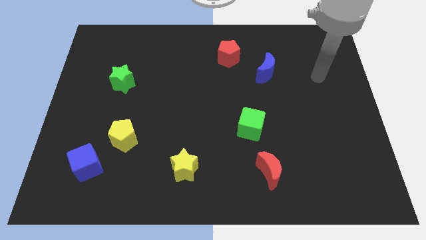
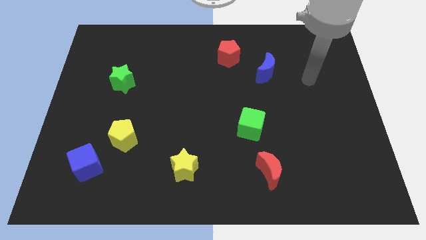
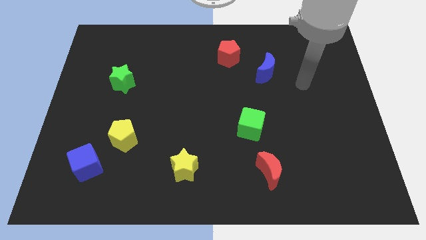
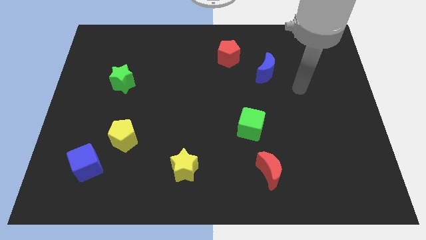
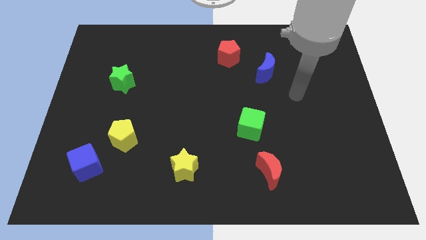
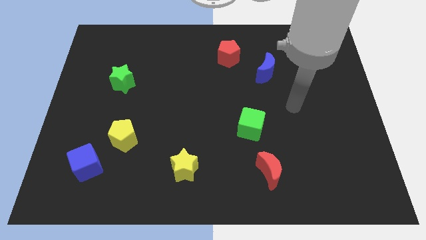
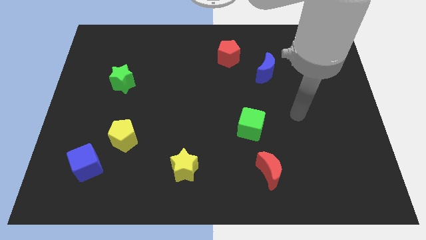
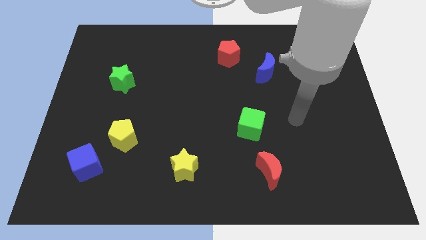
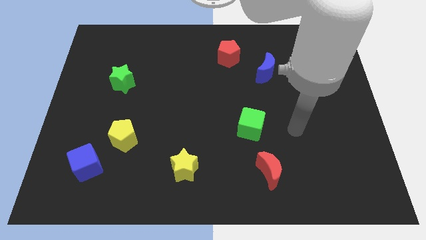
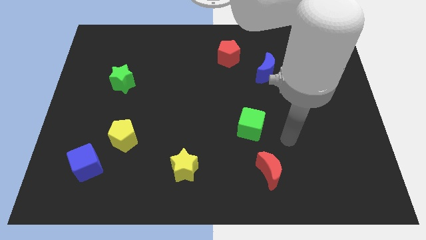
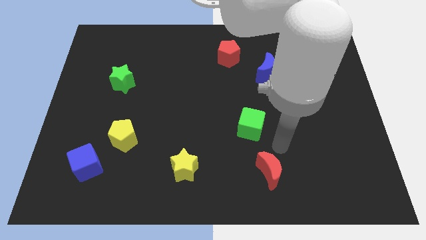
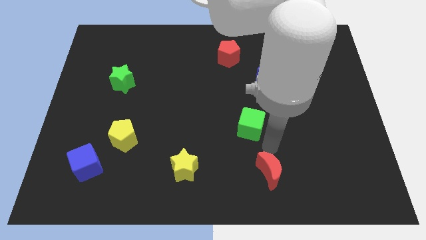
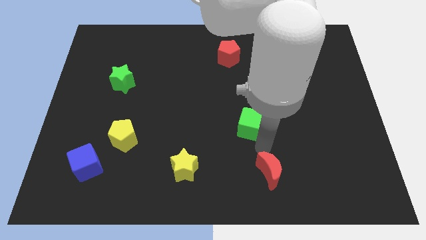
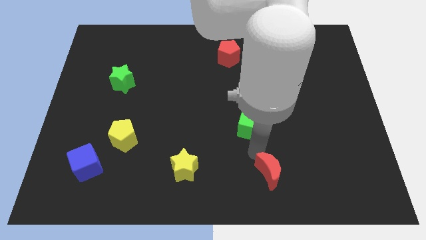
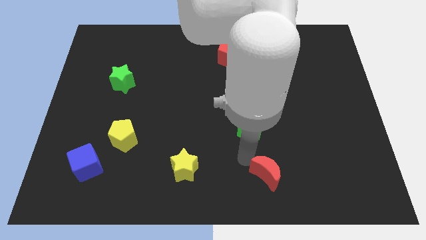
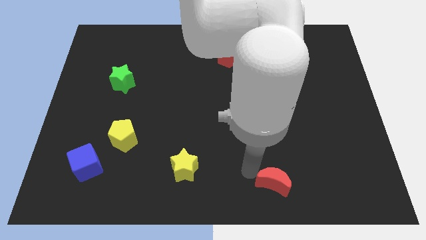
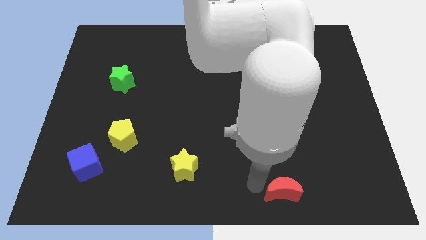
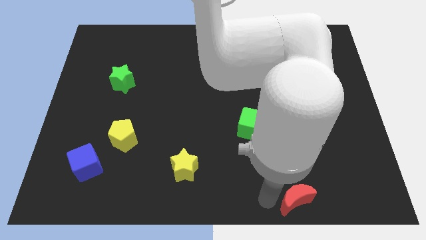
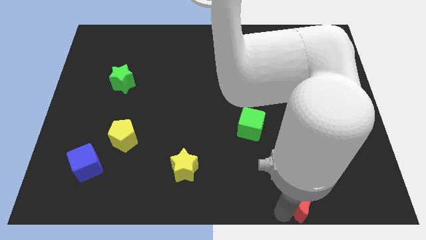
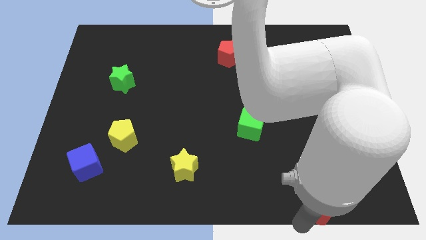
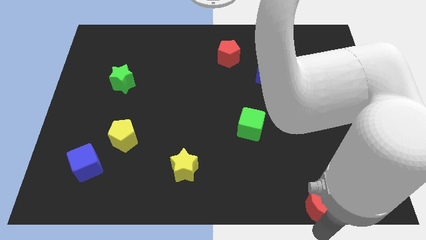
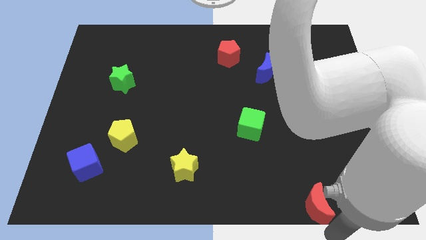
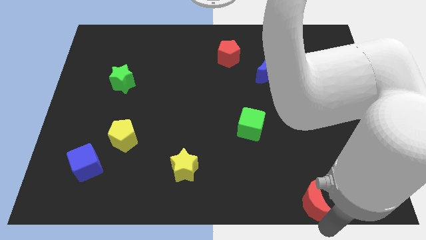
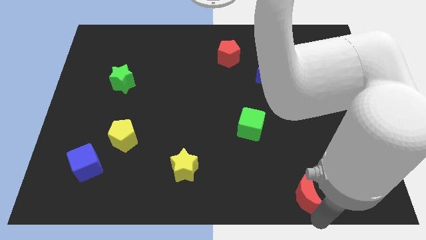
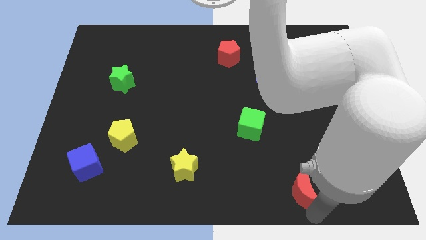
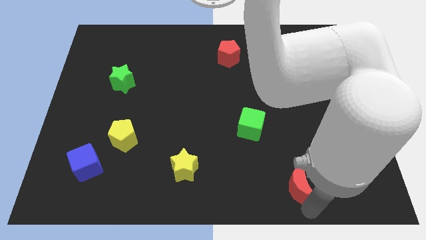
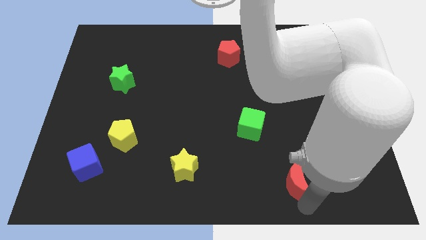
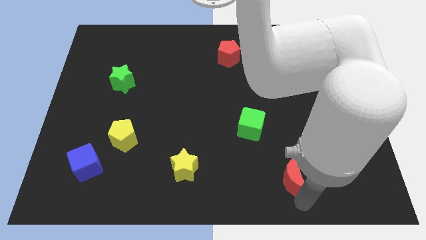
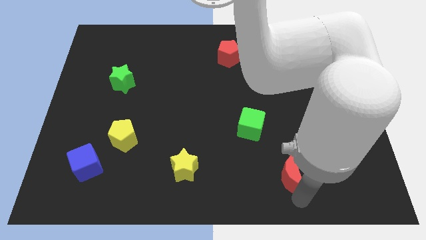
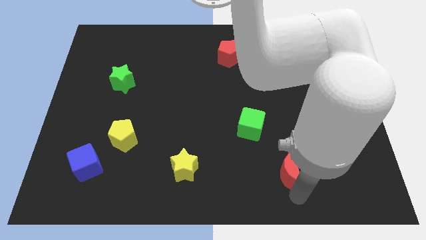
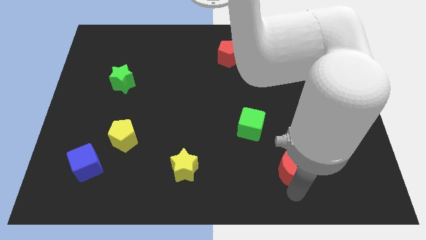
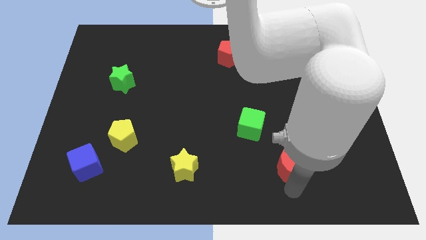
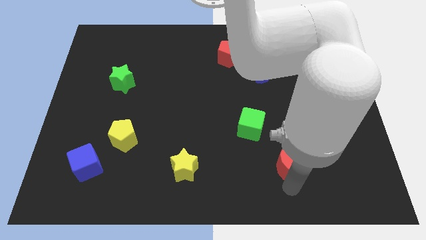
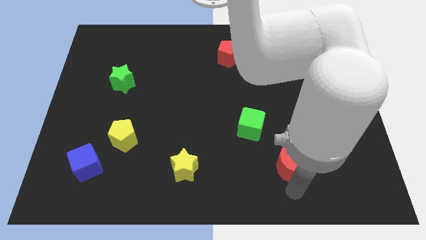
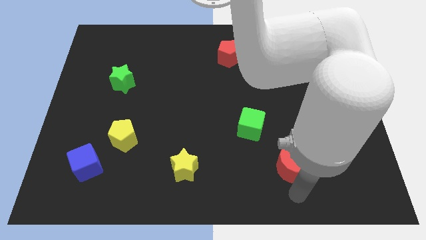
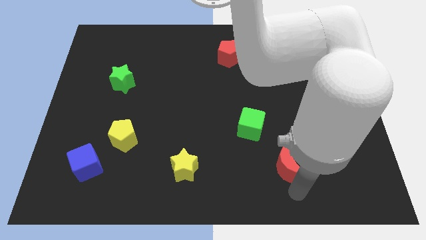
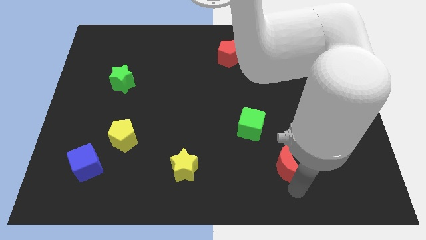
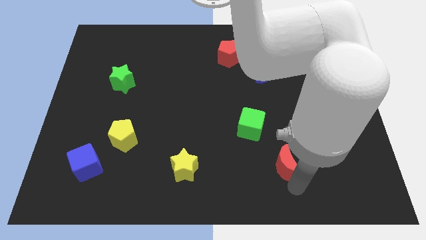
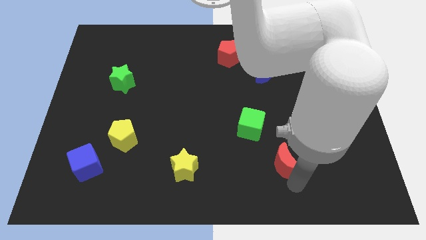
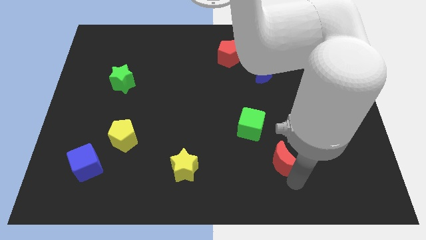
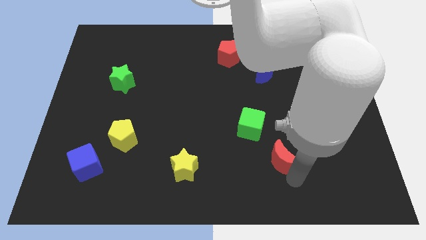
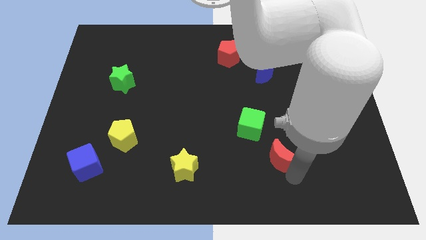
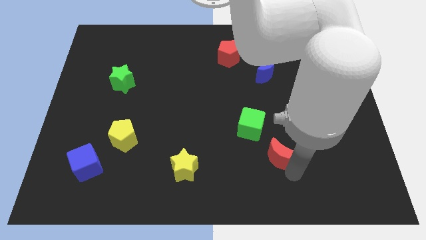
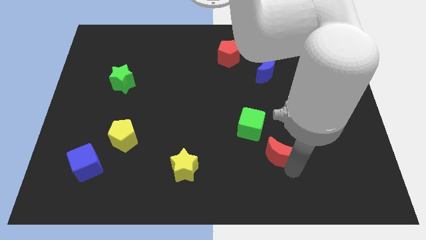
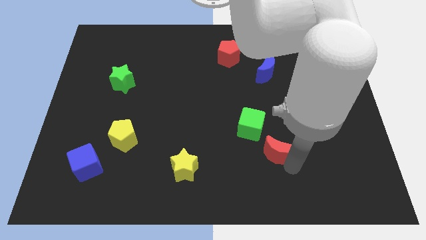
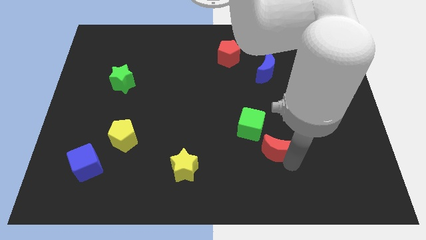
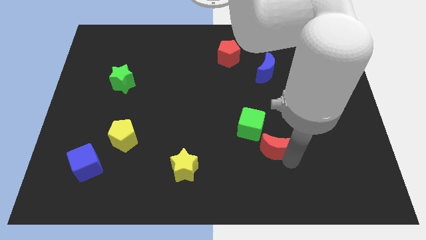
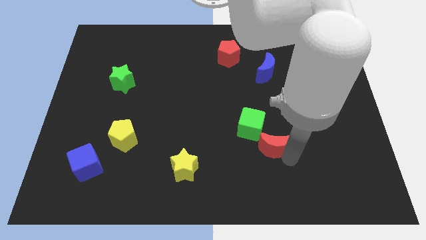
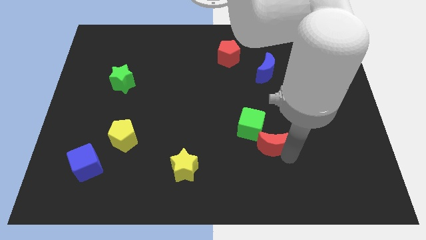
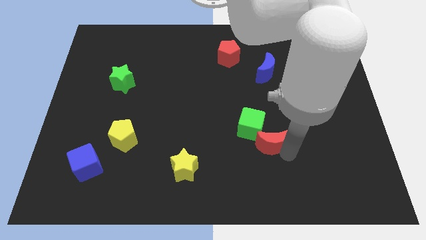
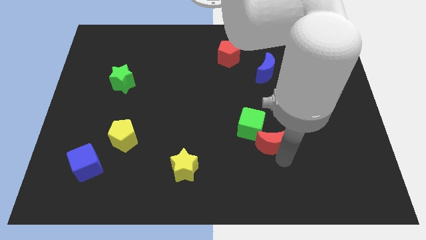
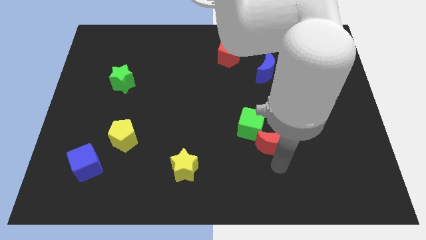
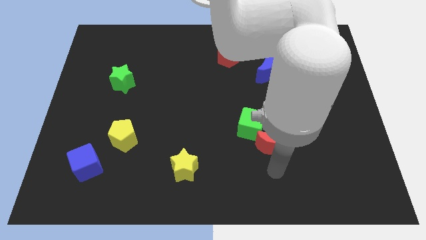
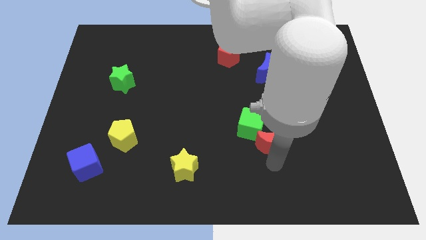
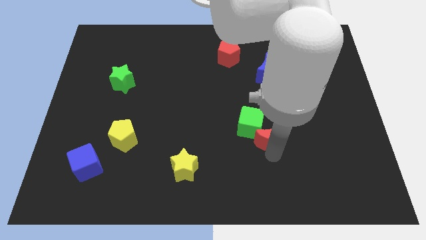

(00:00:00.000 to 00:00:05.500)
push the red moon a bit up

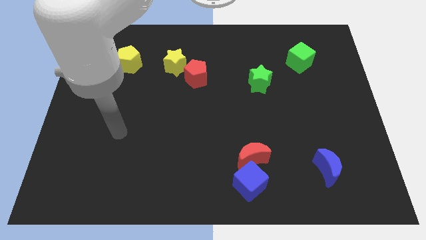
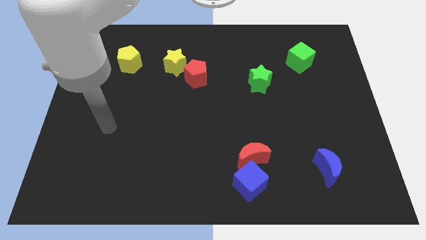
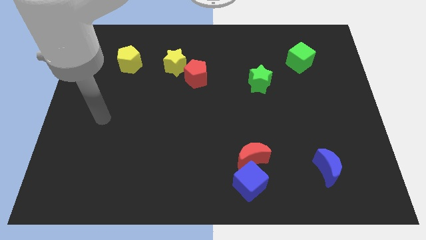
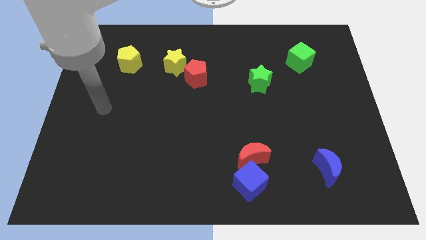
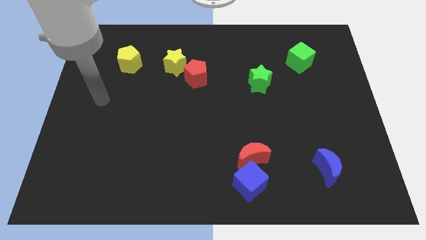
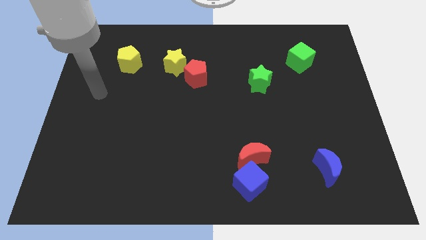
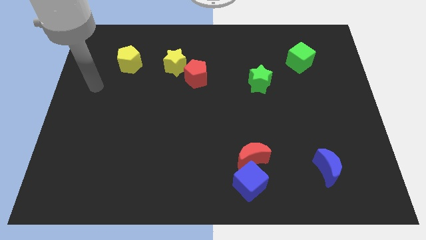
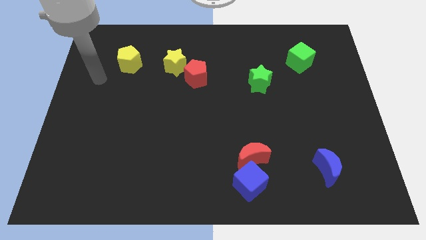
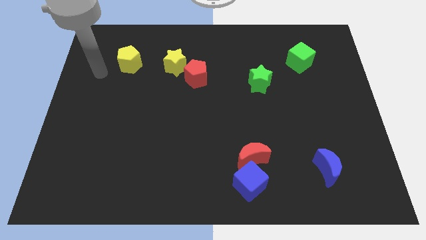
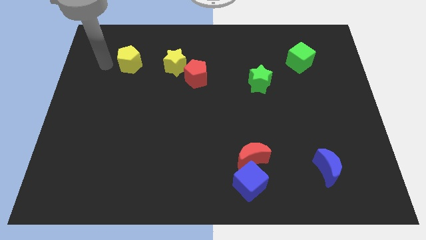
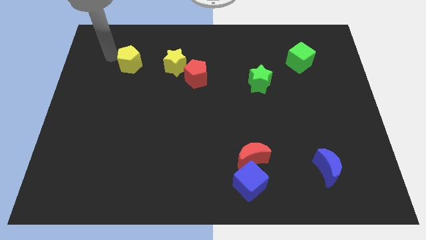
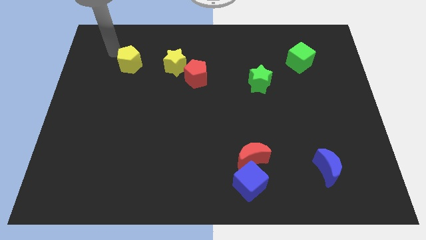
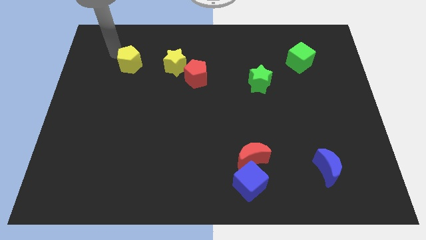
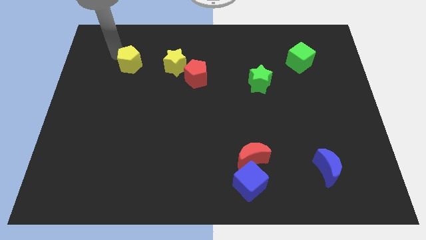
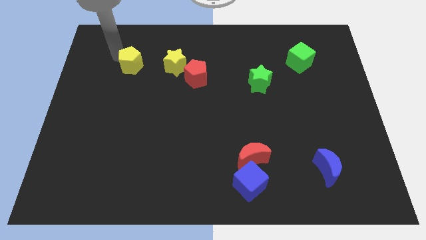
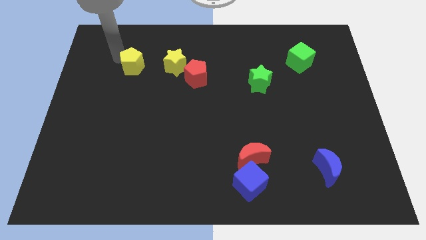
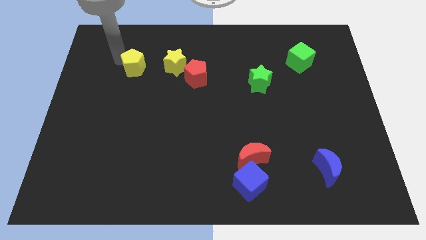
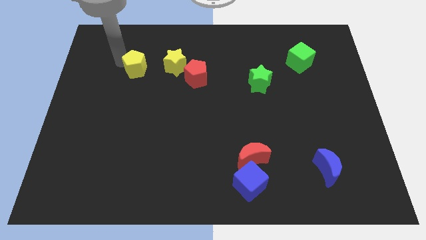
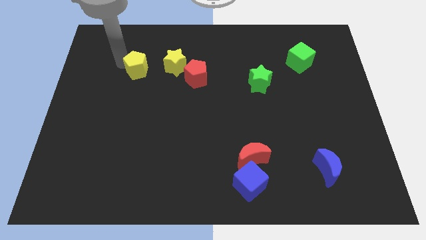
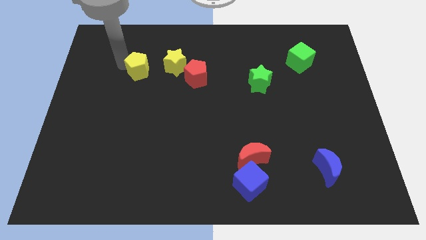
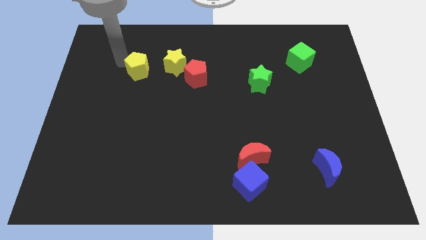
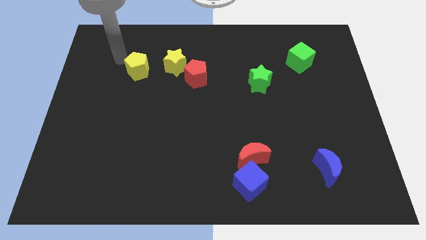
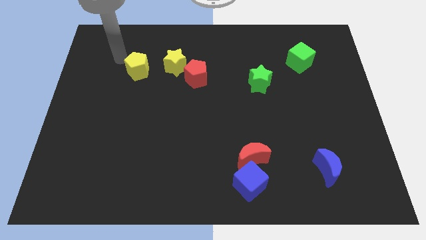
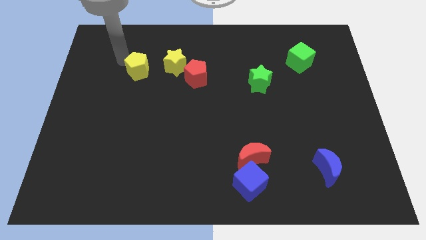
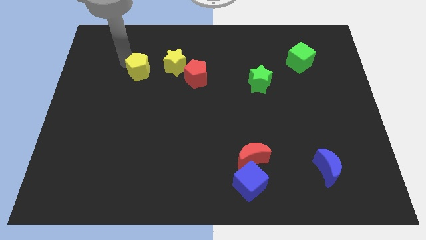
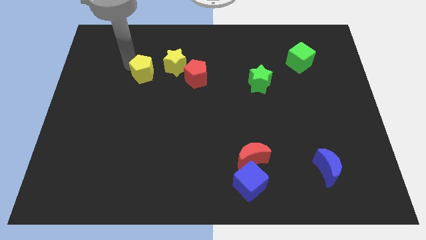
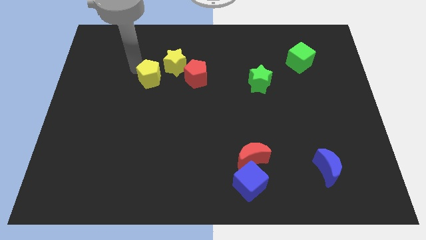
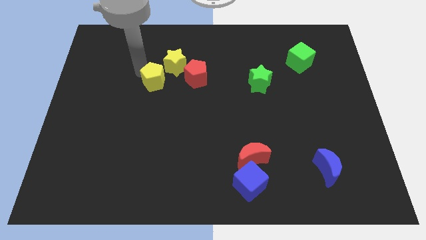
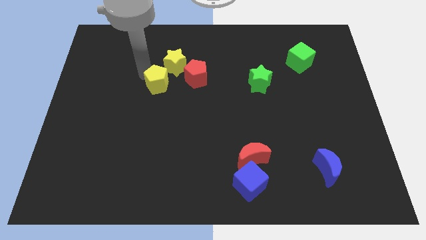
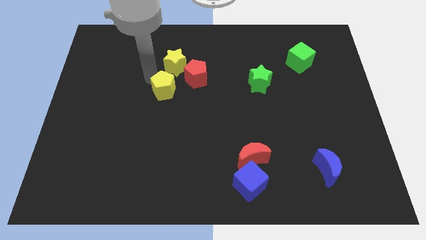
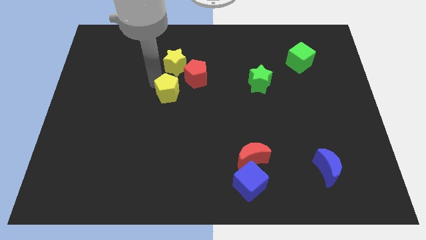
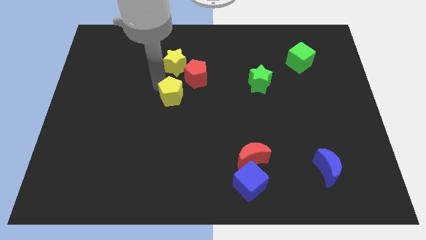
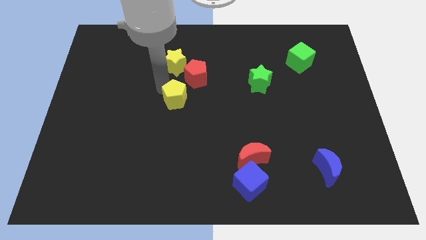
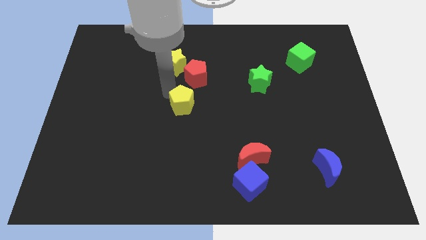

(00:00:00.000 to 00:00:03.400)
slide the yellow pentagon down and to the right diagonally
